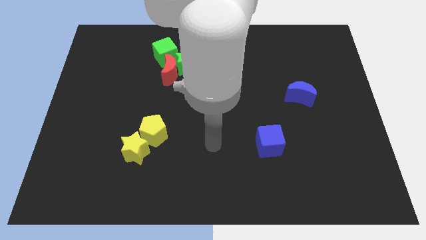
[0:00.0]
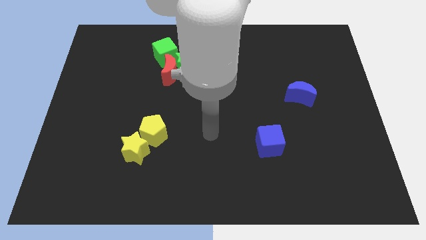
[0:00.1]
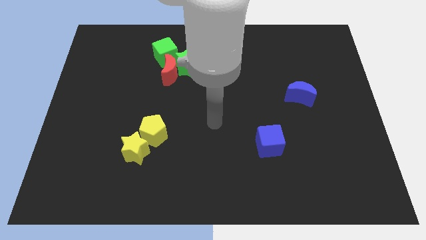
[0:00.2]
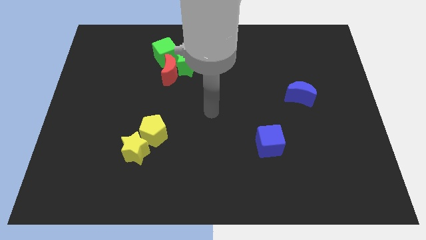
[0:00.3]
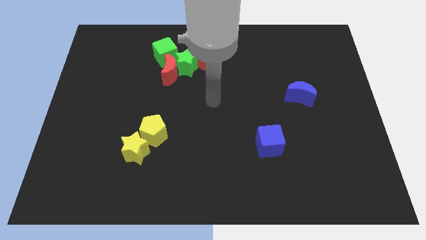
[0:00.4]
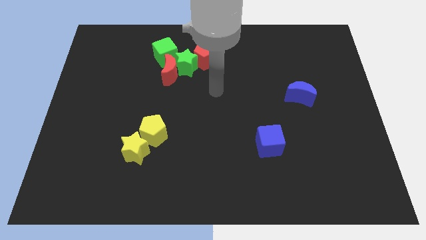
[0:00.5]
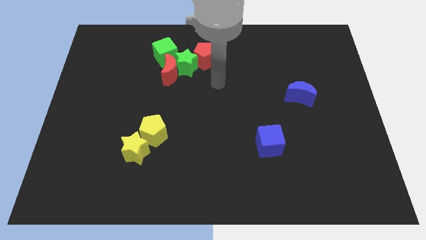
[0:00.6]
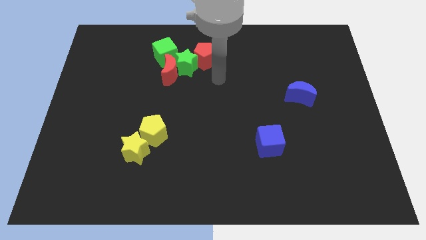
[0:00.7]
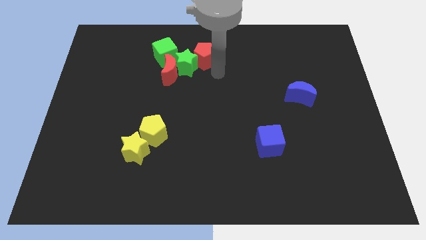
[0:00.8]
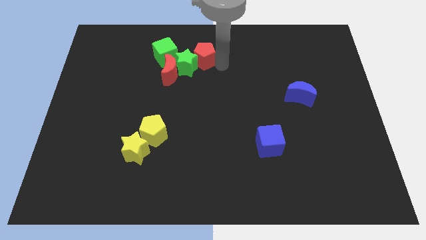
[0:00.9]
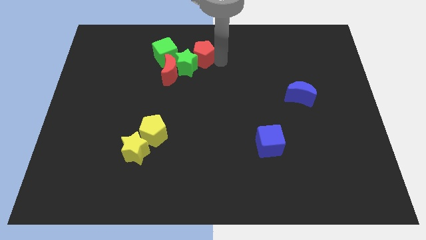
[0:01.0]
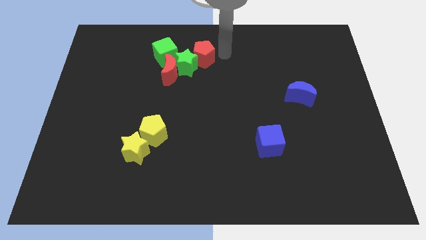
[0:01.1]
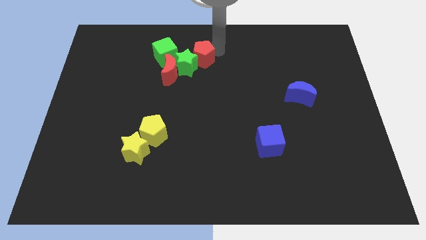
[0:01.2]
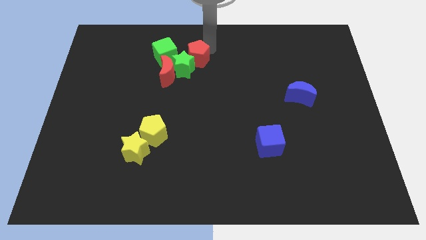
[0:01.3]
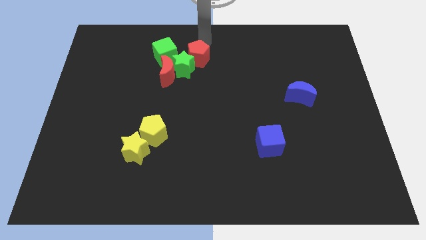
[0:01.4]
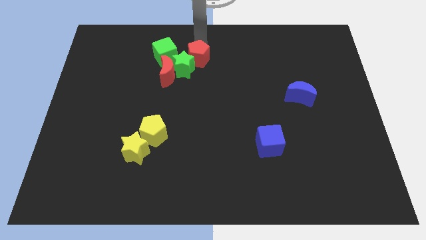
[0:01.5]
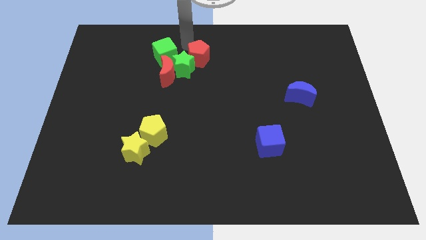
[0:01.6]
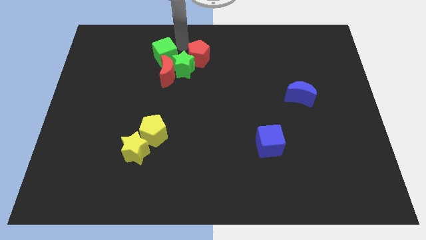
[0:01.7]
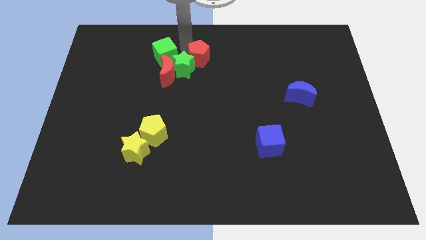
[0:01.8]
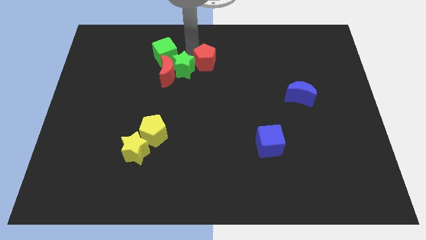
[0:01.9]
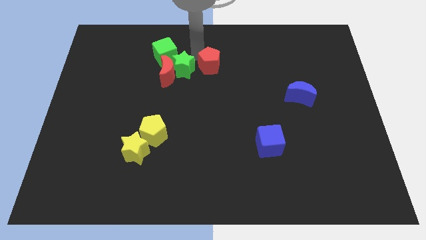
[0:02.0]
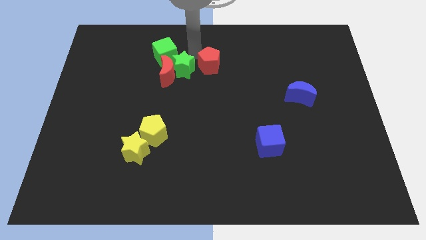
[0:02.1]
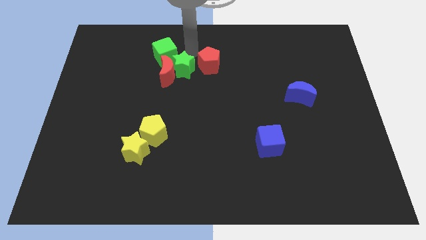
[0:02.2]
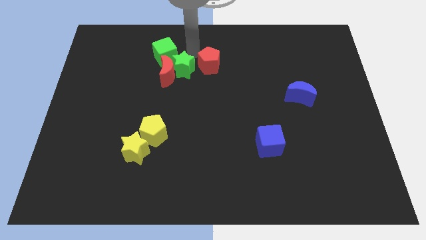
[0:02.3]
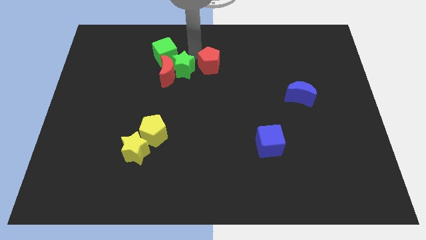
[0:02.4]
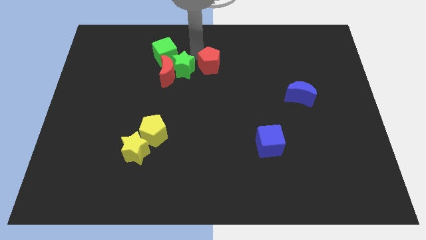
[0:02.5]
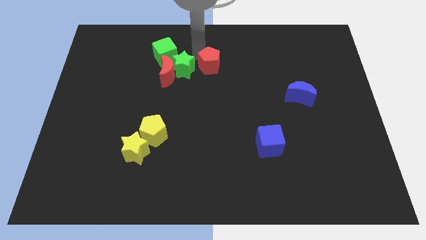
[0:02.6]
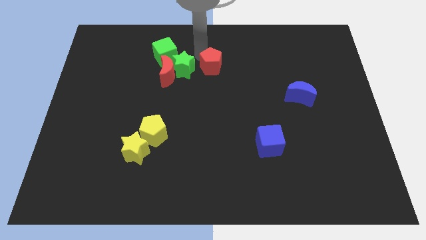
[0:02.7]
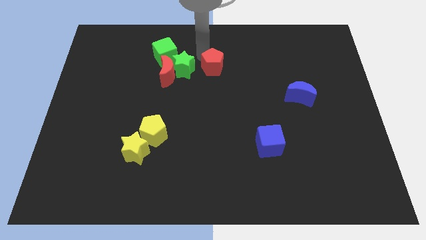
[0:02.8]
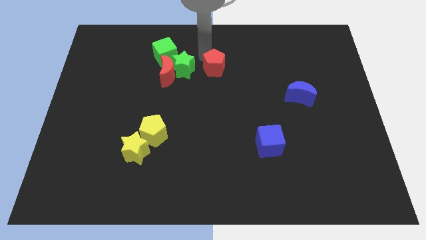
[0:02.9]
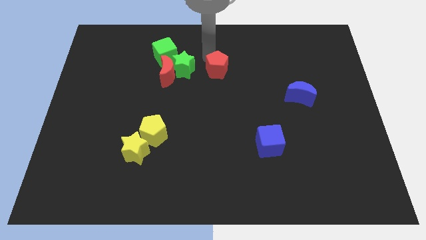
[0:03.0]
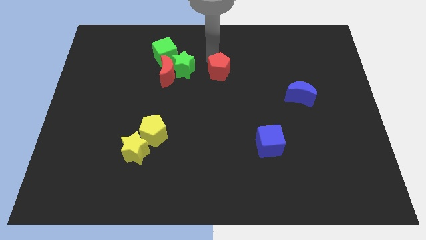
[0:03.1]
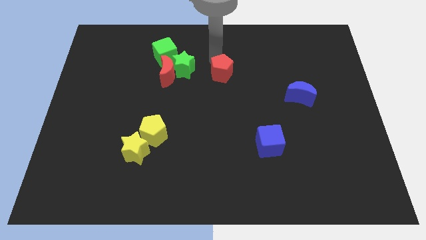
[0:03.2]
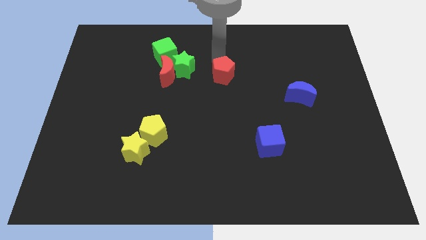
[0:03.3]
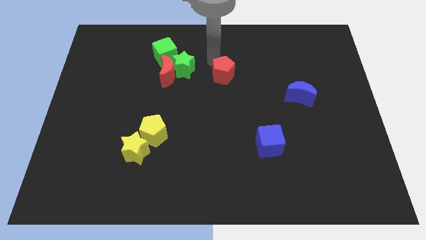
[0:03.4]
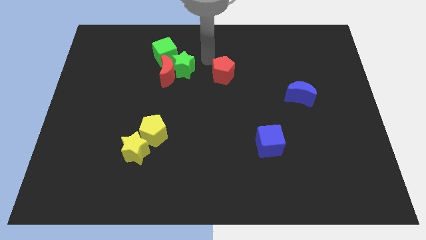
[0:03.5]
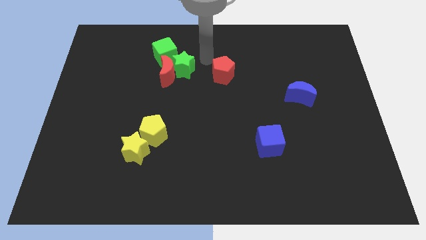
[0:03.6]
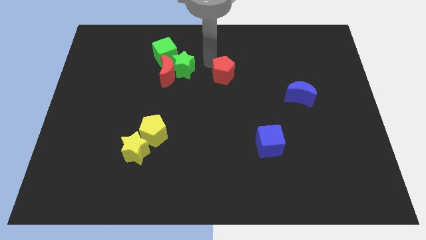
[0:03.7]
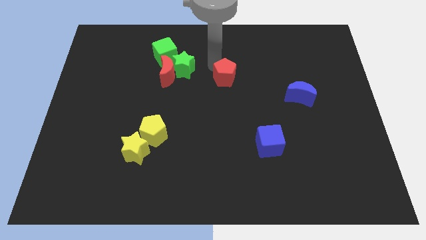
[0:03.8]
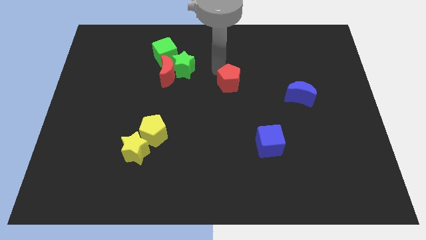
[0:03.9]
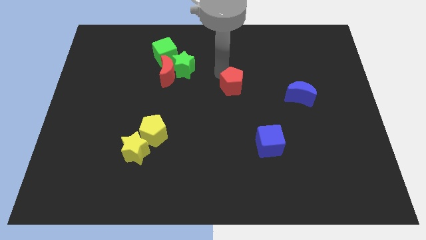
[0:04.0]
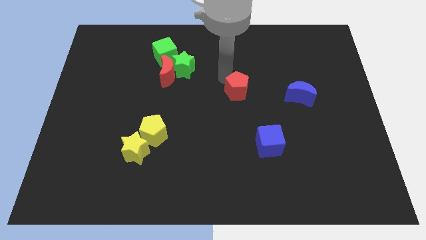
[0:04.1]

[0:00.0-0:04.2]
push the red pentagon just left of the blue moon

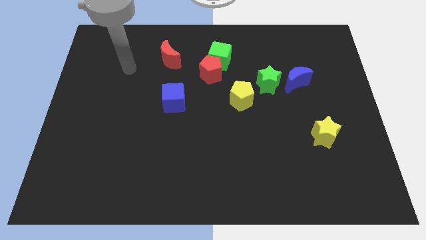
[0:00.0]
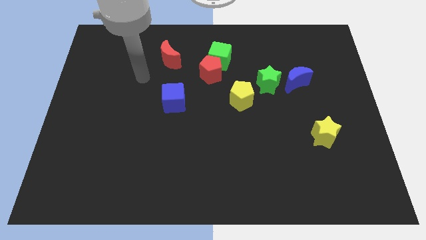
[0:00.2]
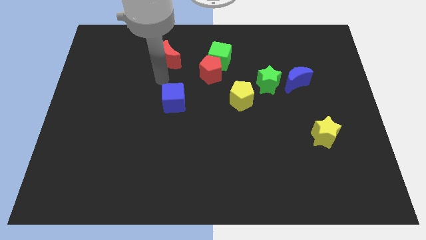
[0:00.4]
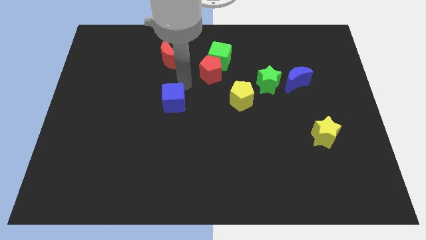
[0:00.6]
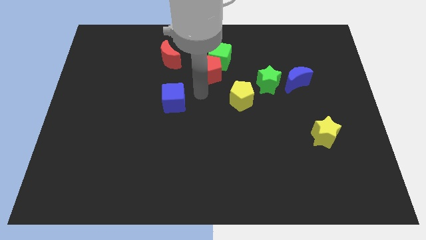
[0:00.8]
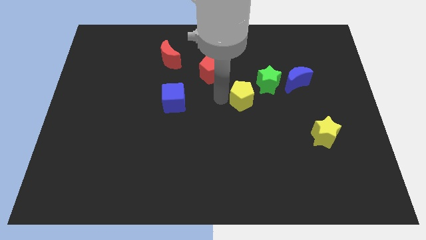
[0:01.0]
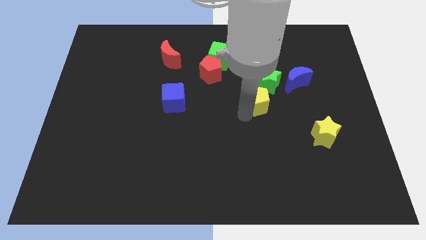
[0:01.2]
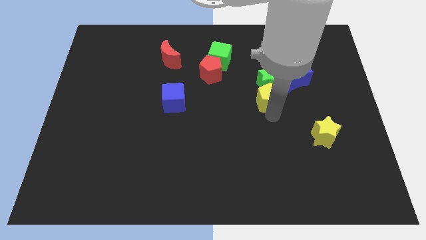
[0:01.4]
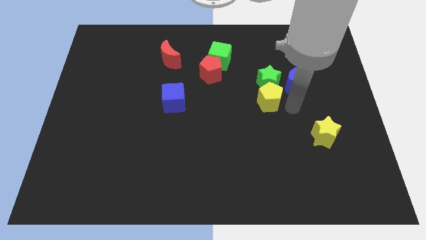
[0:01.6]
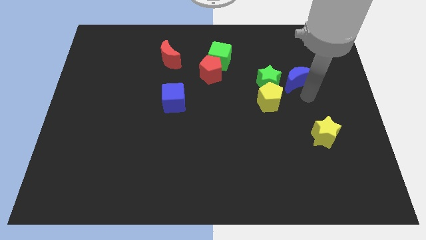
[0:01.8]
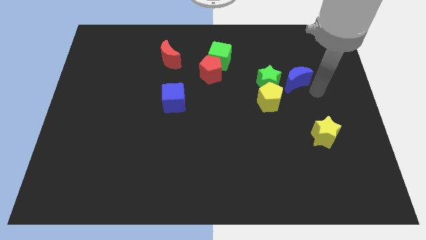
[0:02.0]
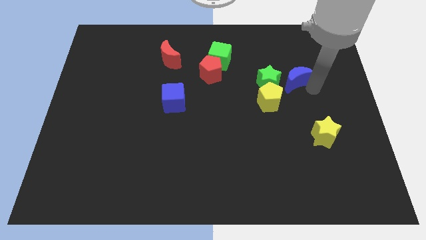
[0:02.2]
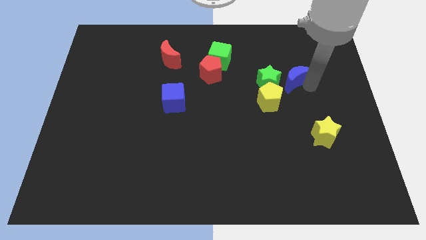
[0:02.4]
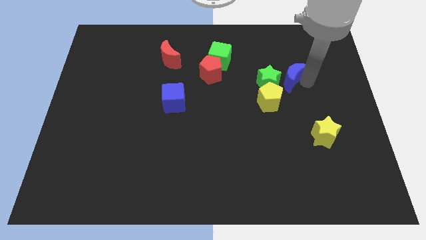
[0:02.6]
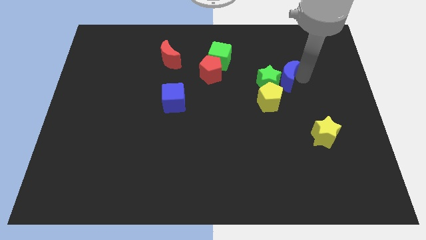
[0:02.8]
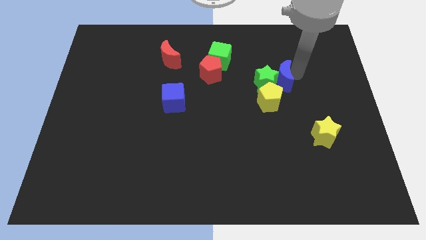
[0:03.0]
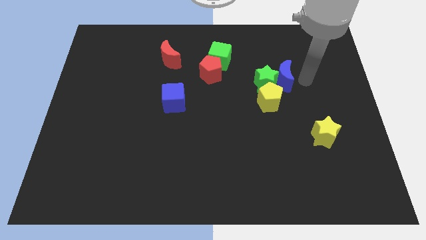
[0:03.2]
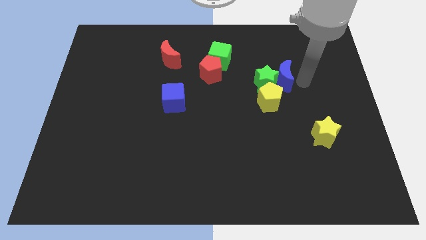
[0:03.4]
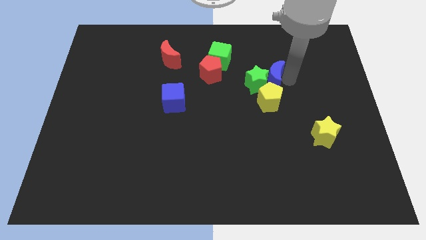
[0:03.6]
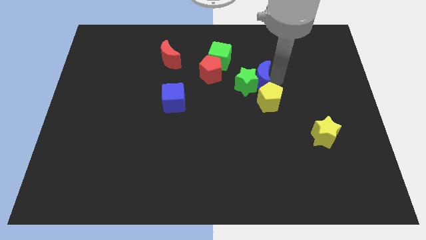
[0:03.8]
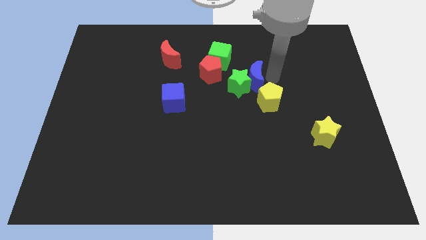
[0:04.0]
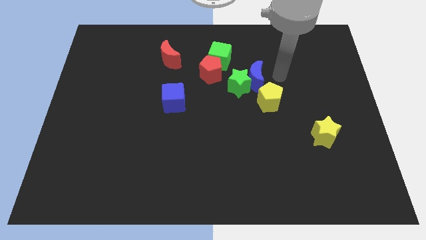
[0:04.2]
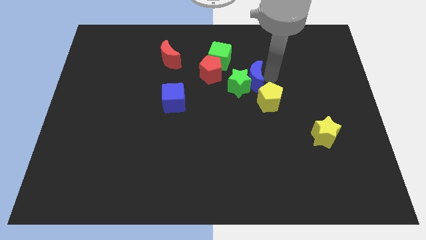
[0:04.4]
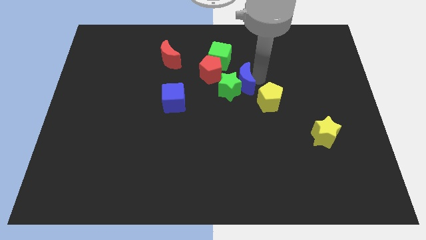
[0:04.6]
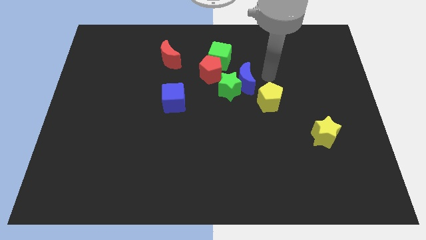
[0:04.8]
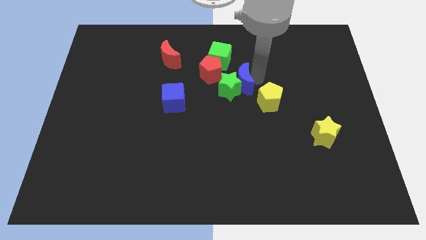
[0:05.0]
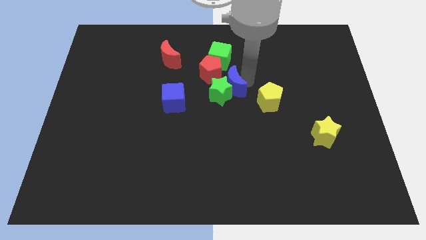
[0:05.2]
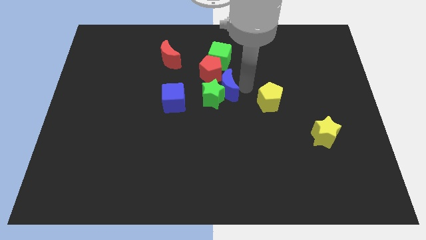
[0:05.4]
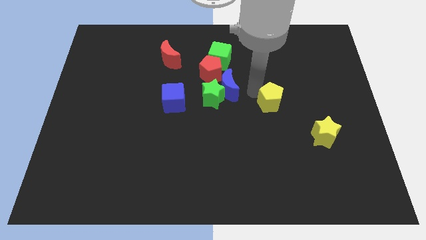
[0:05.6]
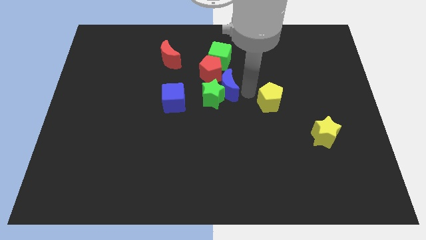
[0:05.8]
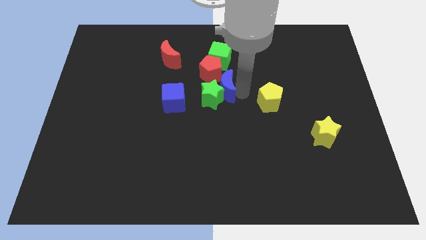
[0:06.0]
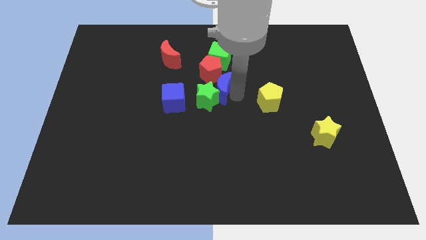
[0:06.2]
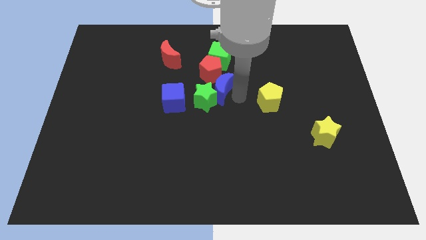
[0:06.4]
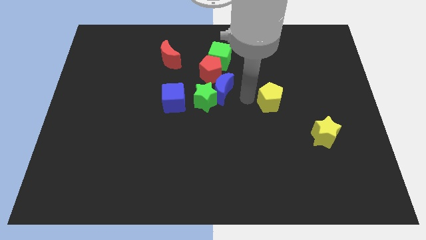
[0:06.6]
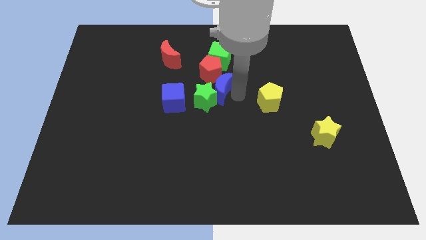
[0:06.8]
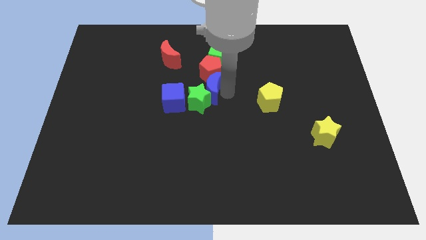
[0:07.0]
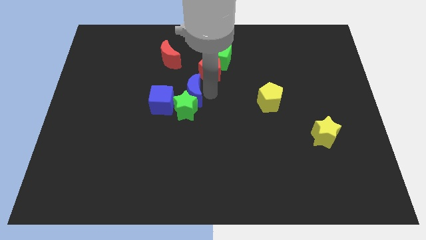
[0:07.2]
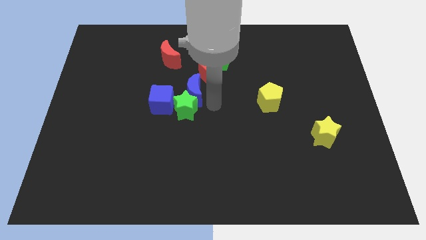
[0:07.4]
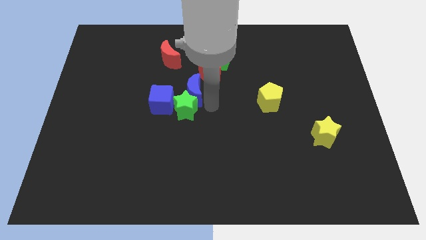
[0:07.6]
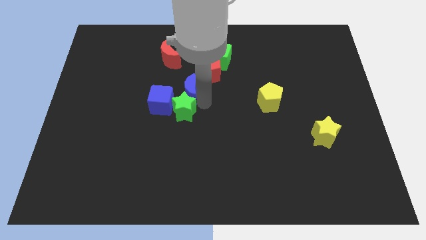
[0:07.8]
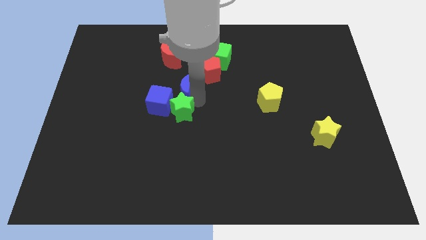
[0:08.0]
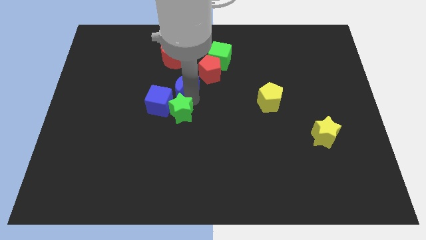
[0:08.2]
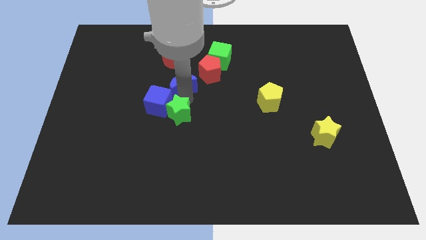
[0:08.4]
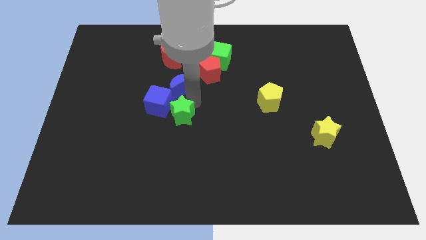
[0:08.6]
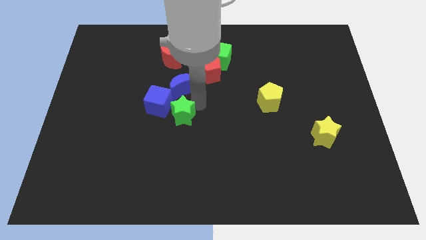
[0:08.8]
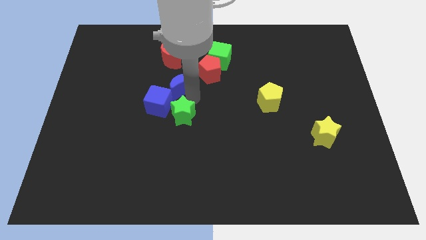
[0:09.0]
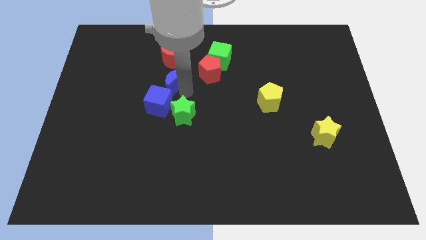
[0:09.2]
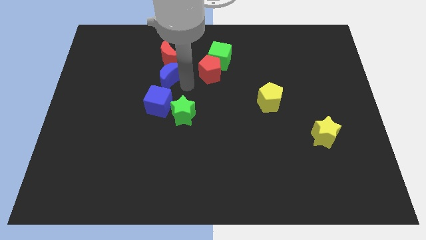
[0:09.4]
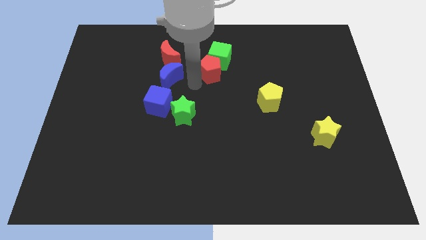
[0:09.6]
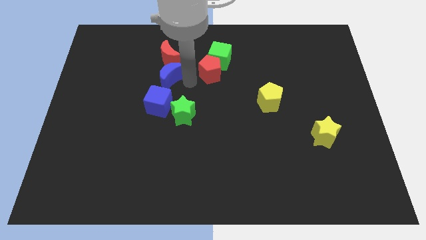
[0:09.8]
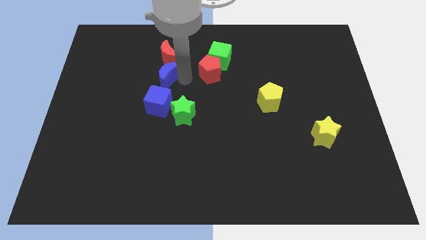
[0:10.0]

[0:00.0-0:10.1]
put the blue moon to the bottom left of the red moon
